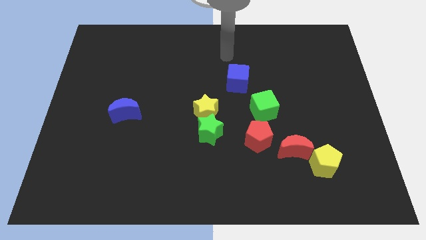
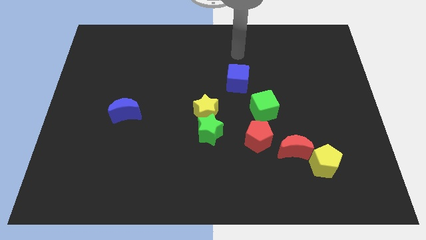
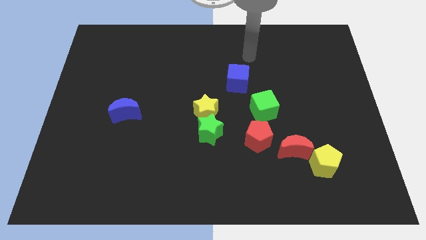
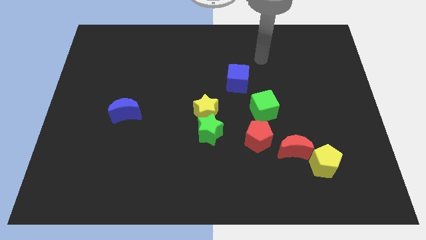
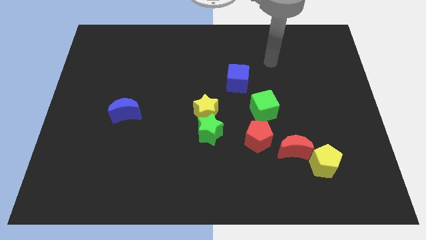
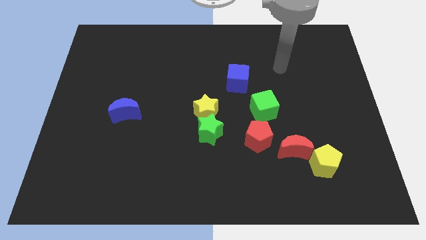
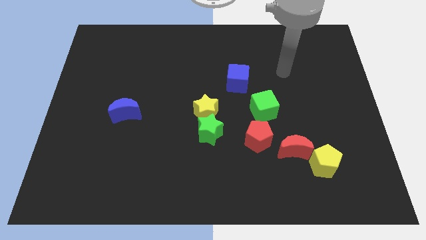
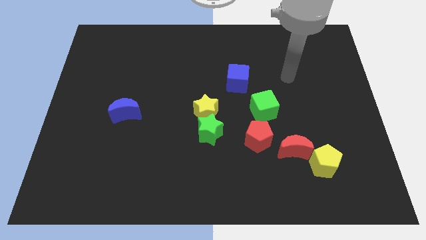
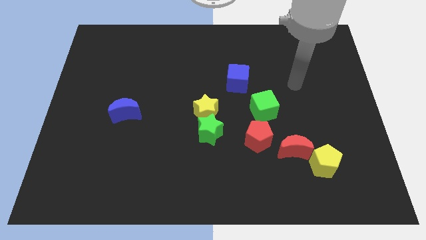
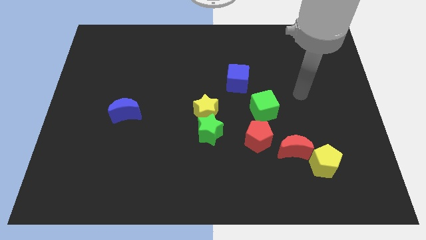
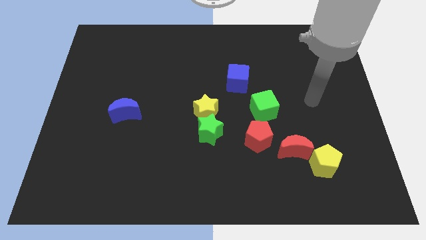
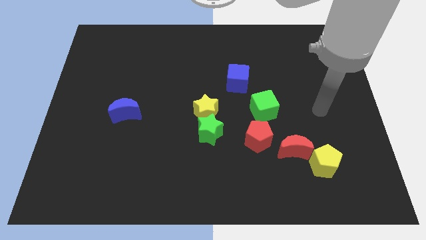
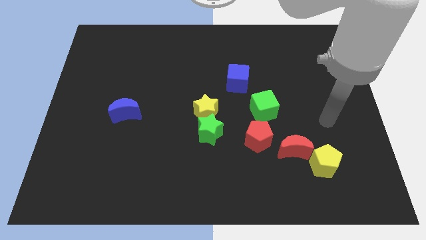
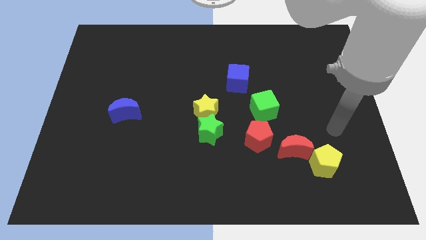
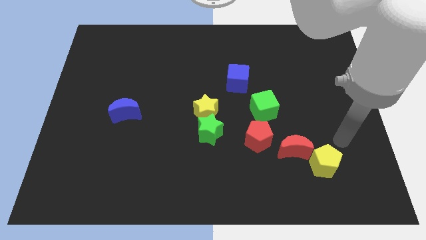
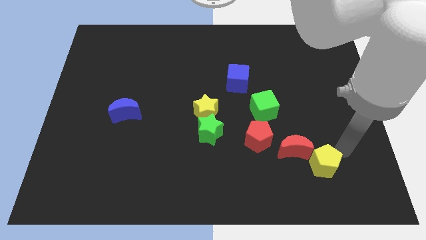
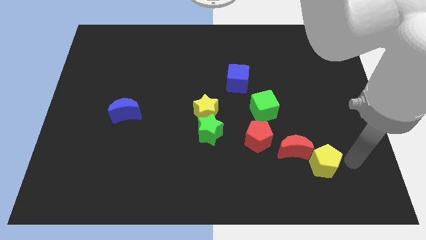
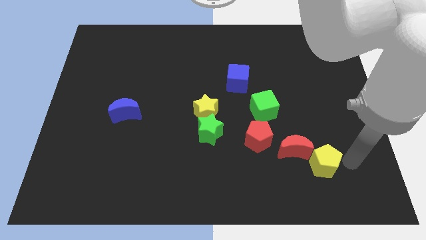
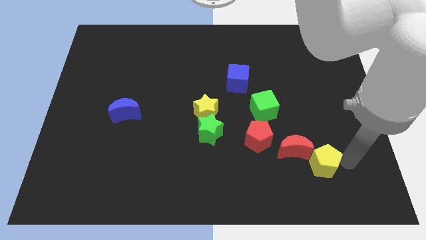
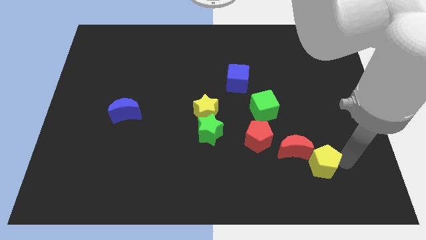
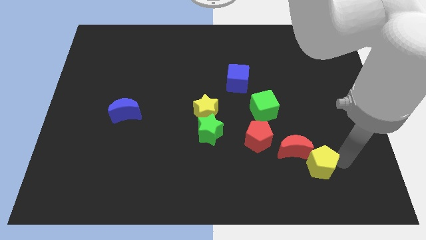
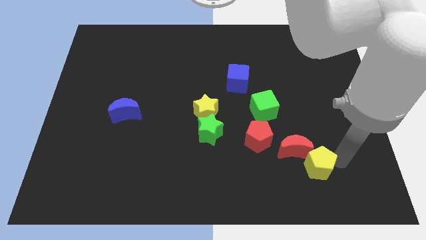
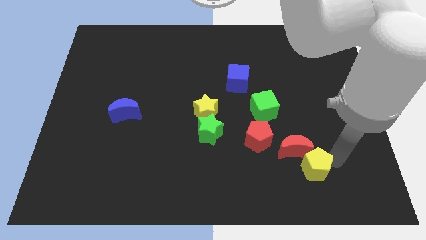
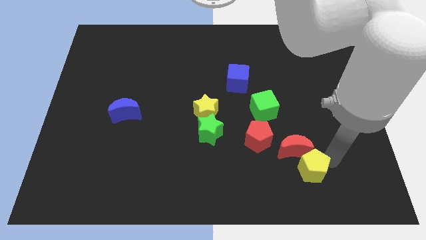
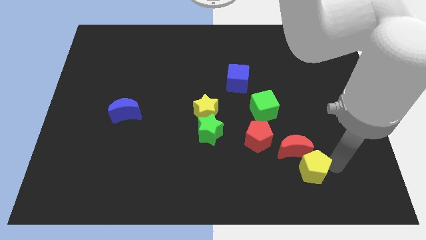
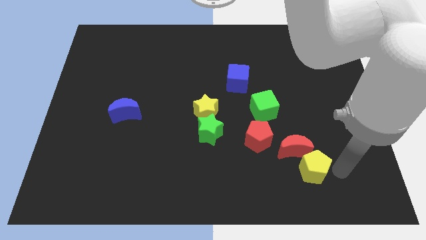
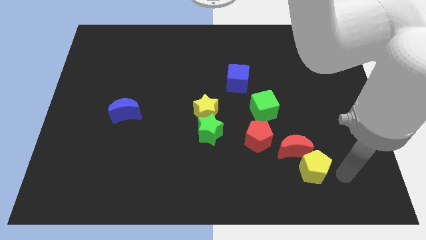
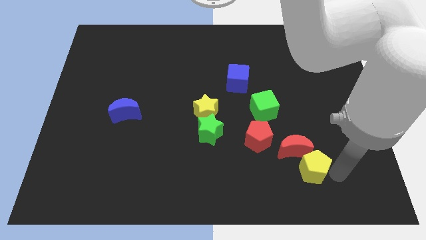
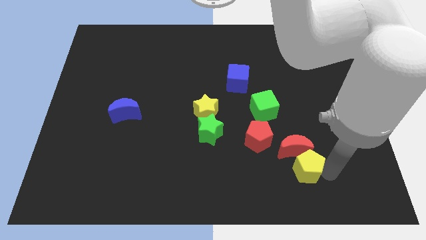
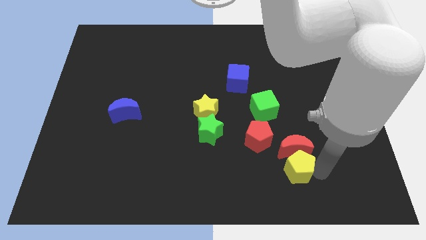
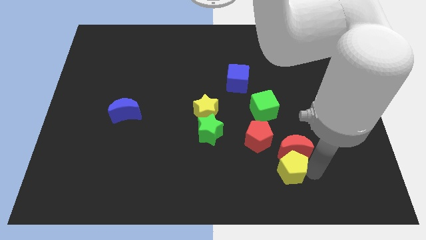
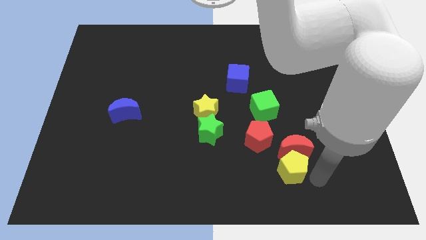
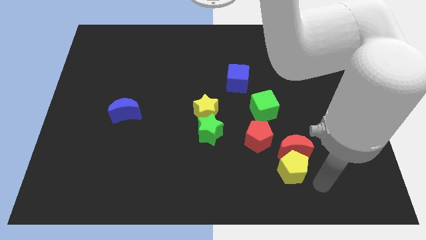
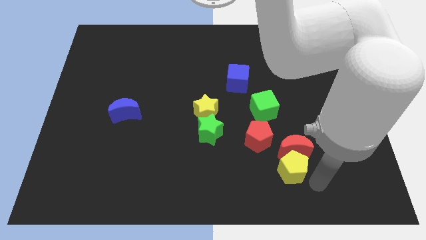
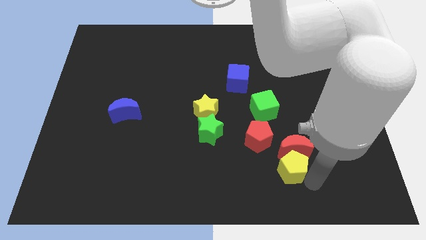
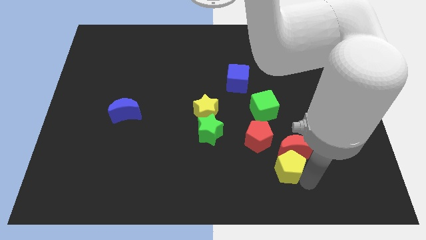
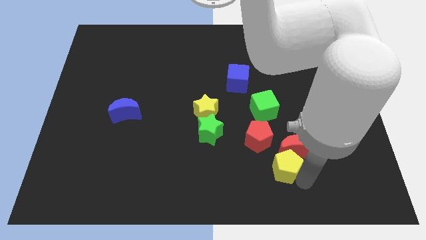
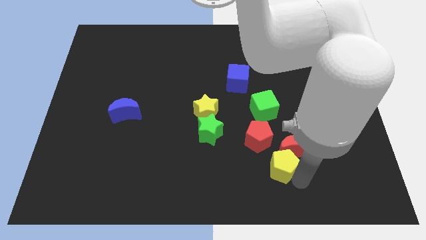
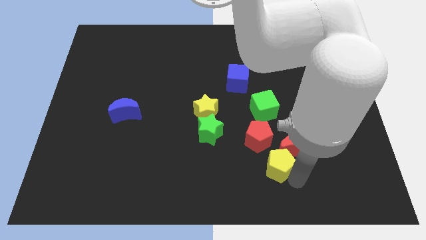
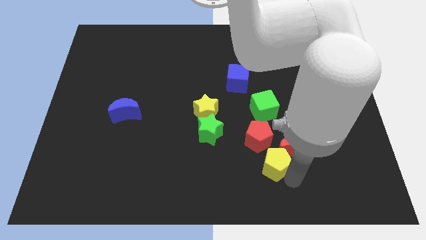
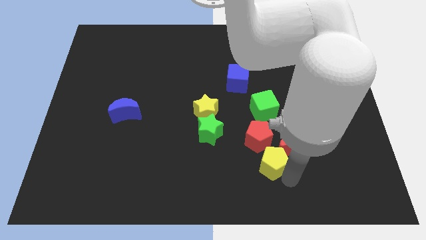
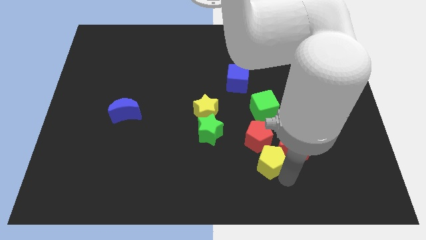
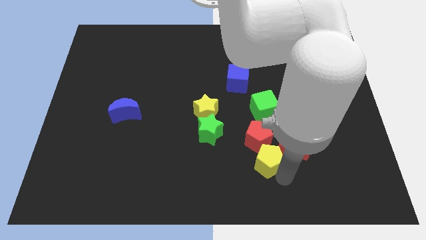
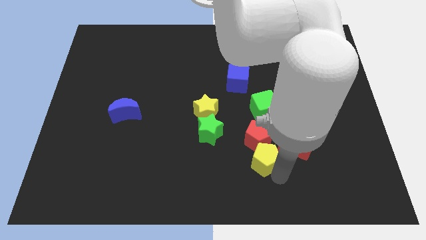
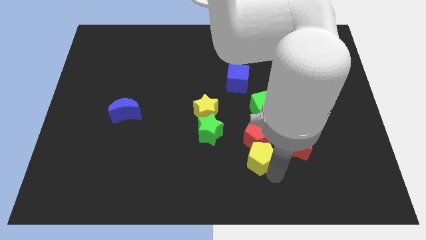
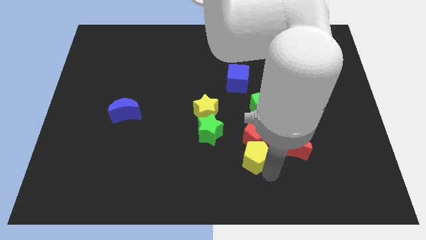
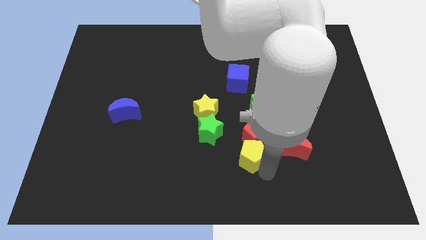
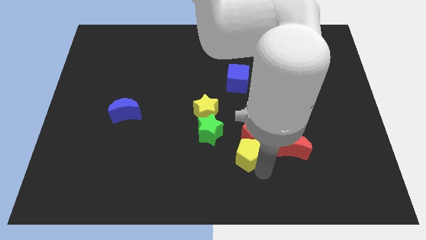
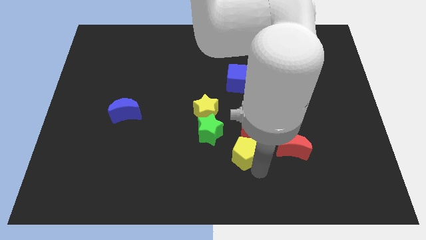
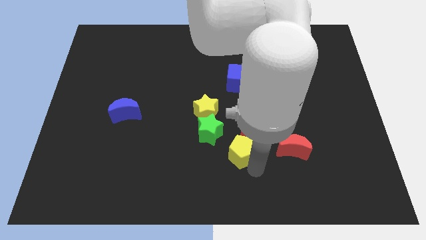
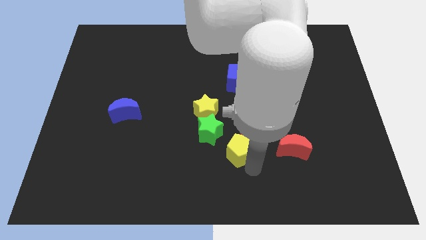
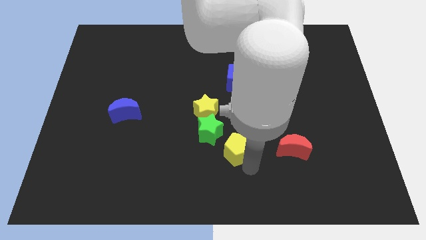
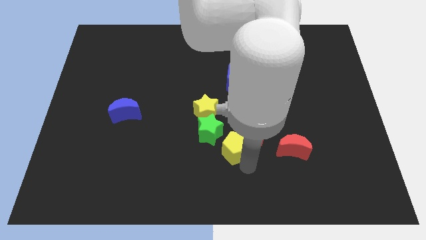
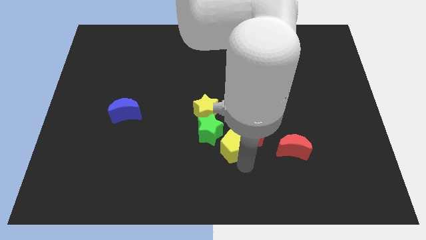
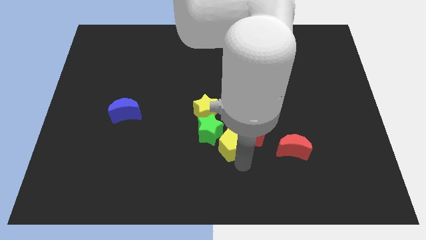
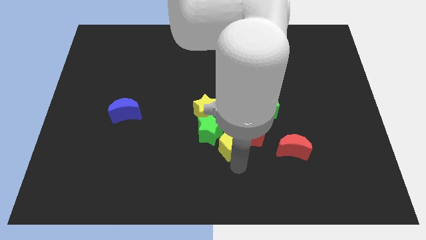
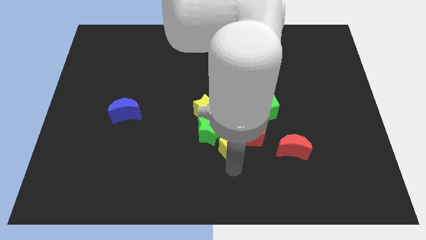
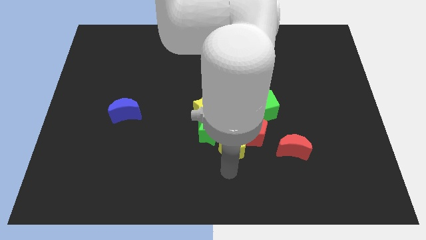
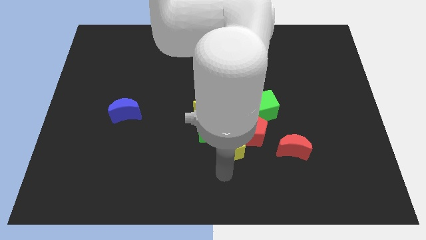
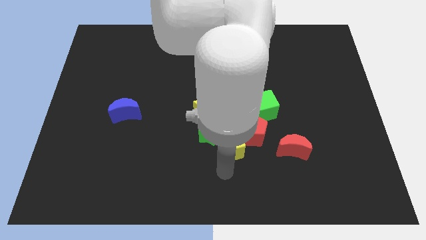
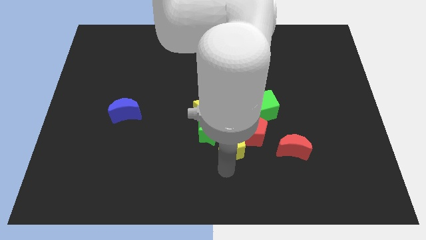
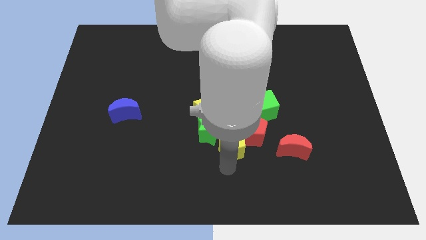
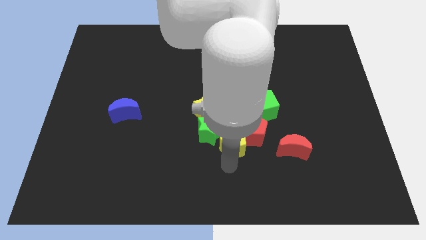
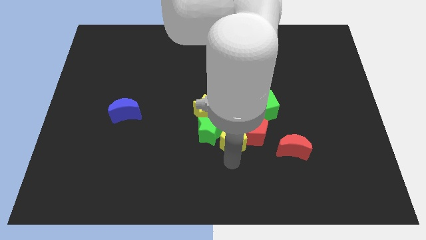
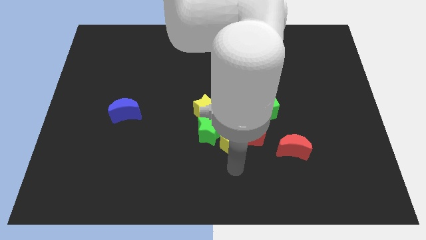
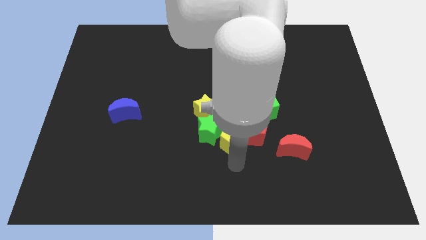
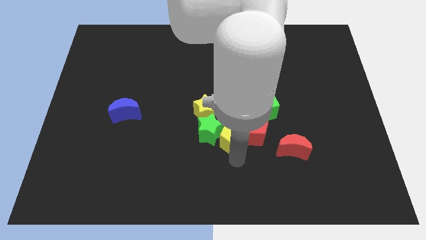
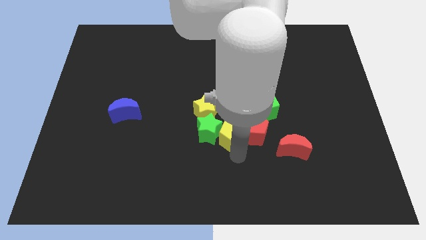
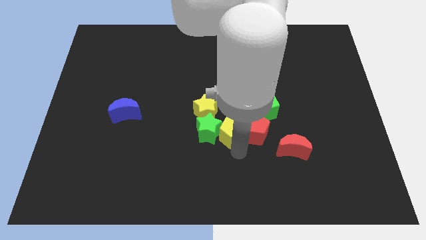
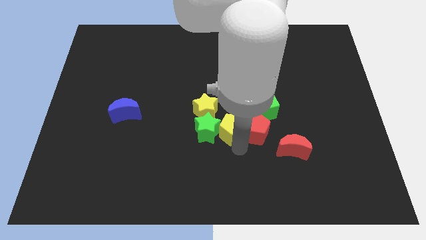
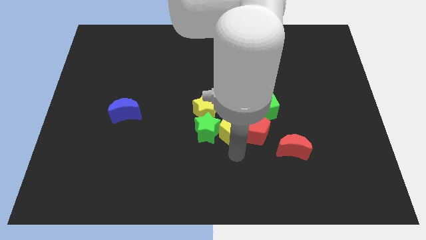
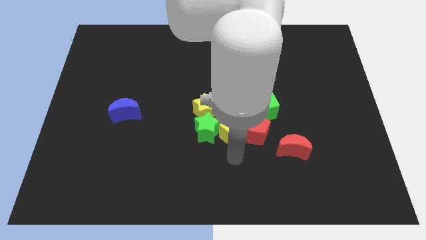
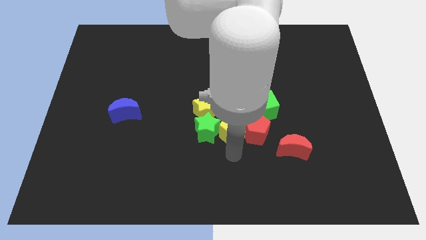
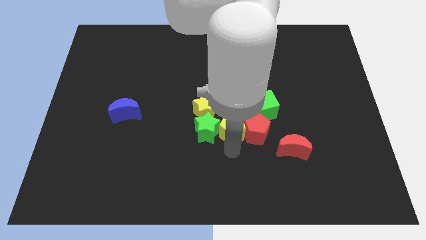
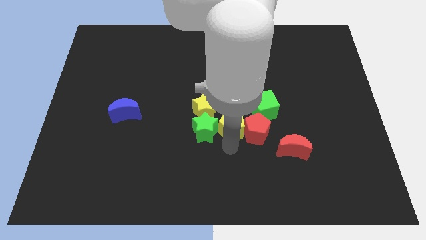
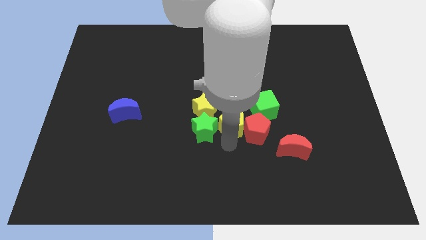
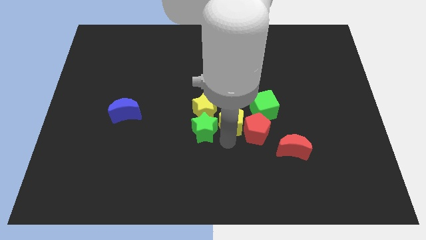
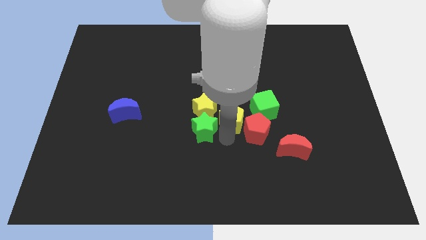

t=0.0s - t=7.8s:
move the yellow pentagon up and left diagonally
